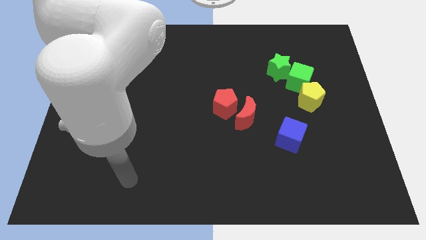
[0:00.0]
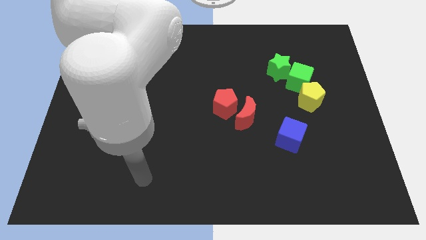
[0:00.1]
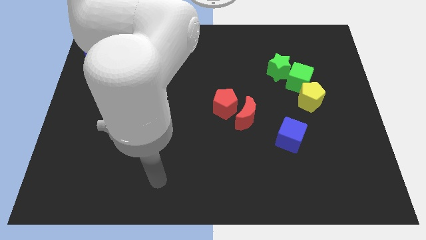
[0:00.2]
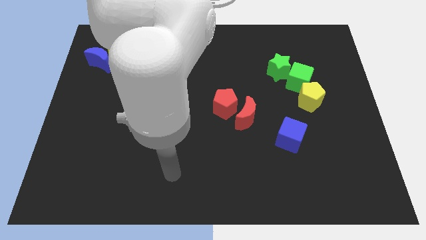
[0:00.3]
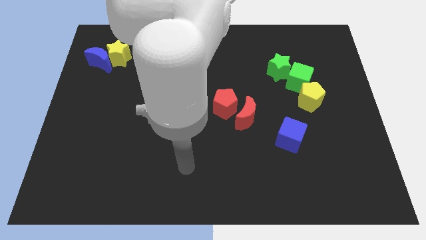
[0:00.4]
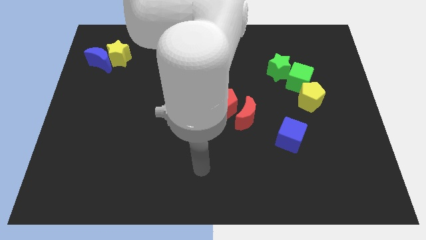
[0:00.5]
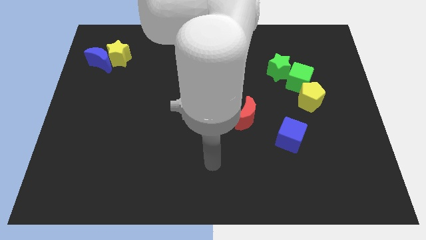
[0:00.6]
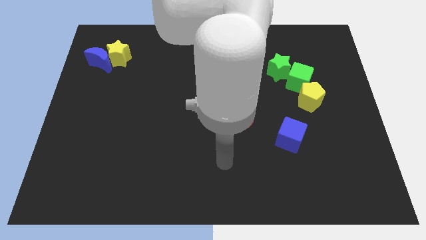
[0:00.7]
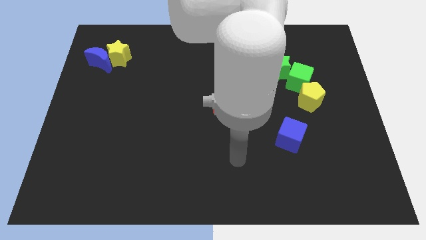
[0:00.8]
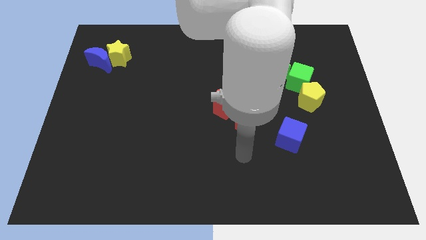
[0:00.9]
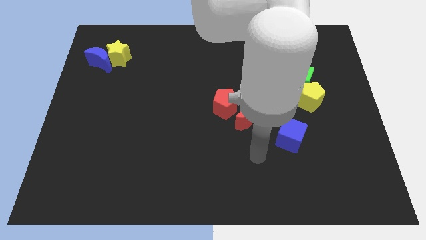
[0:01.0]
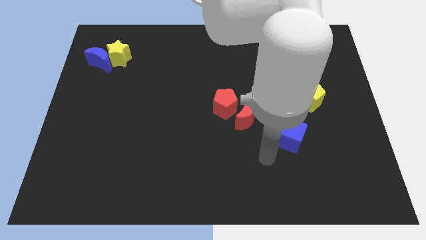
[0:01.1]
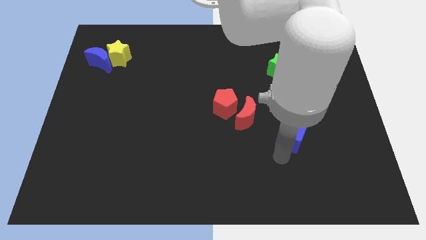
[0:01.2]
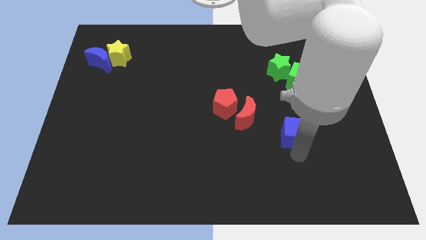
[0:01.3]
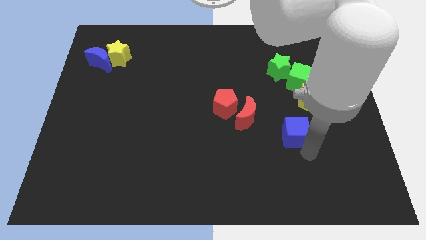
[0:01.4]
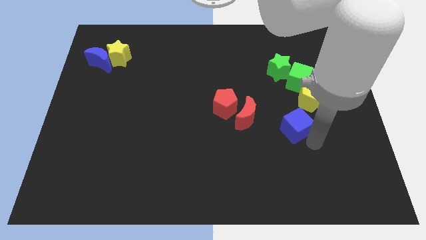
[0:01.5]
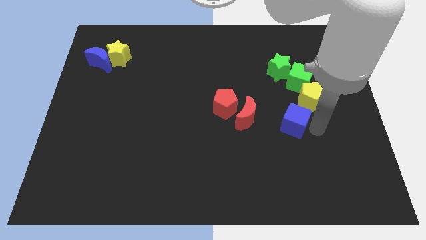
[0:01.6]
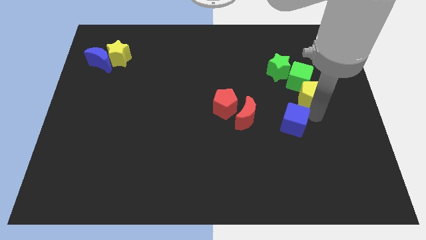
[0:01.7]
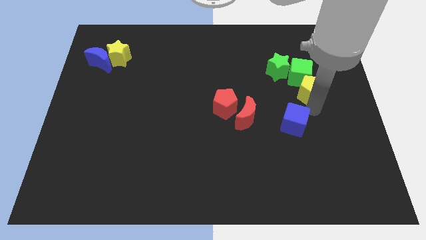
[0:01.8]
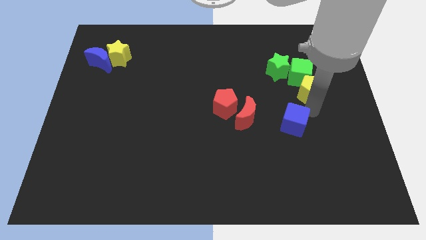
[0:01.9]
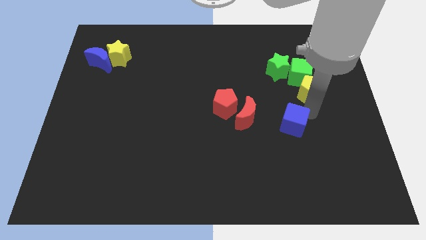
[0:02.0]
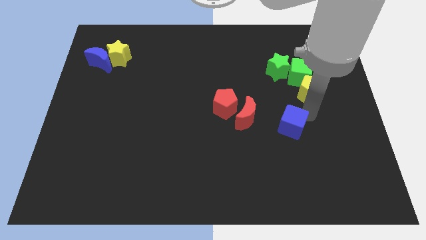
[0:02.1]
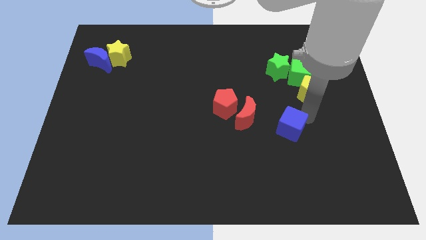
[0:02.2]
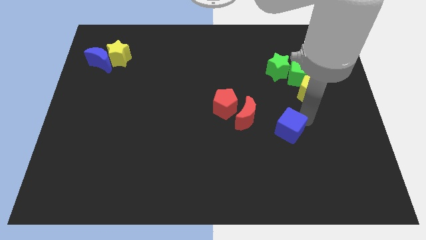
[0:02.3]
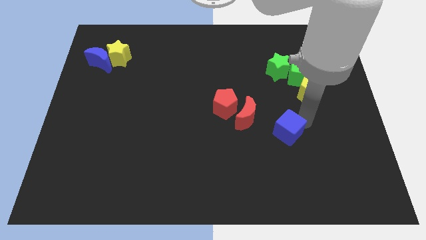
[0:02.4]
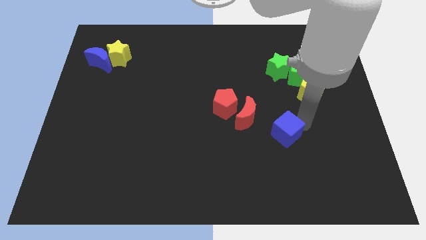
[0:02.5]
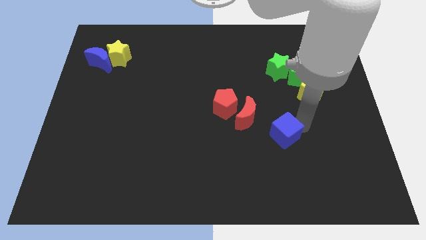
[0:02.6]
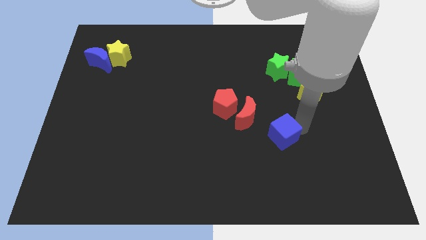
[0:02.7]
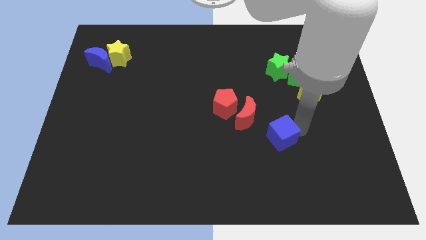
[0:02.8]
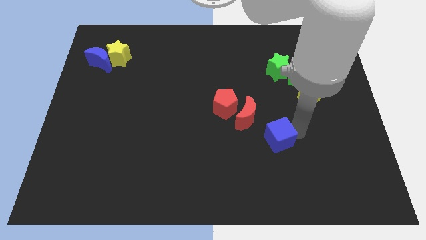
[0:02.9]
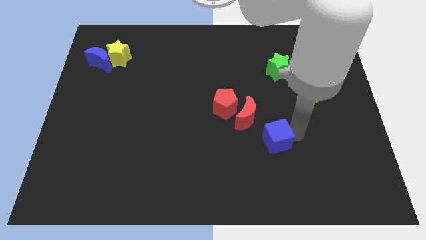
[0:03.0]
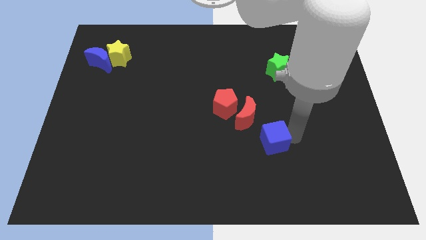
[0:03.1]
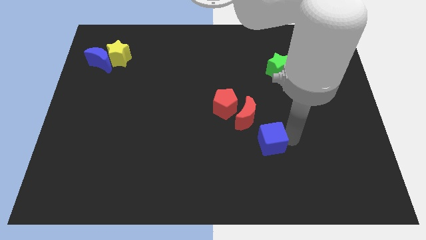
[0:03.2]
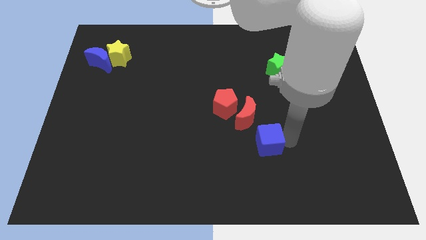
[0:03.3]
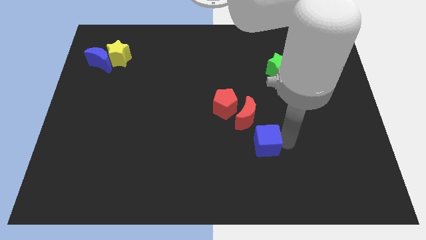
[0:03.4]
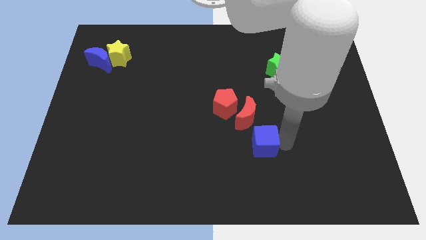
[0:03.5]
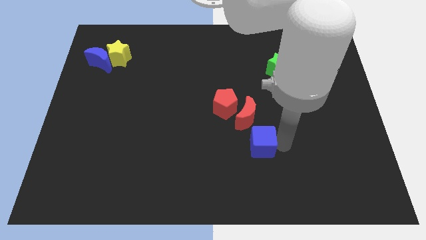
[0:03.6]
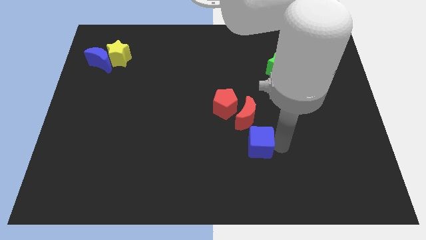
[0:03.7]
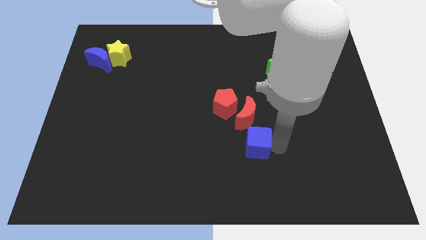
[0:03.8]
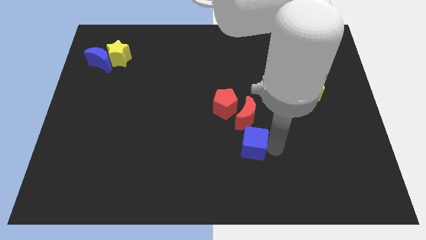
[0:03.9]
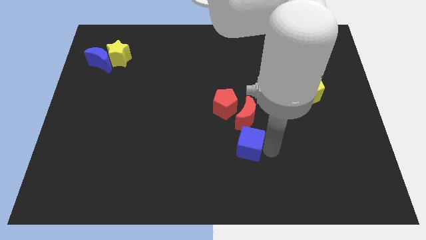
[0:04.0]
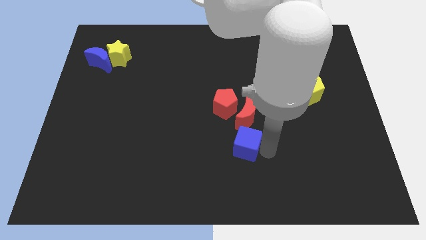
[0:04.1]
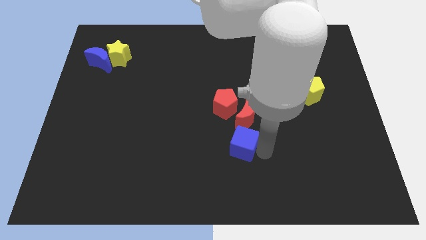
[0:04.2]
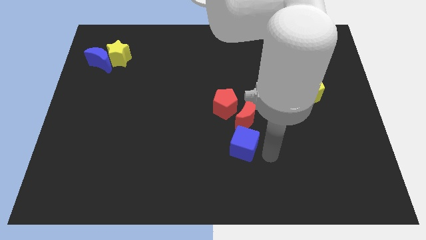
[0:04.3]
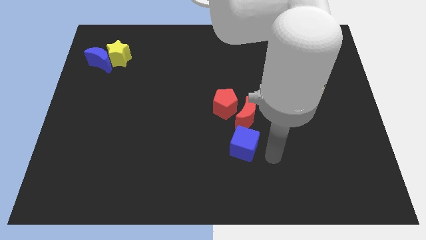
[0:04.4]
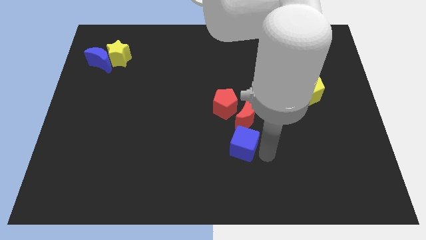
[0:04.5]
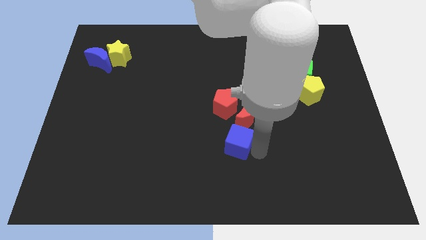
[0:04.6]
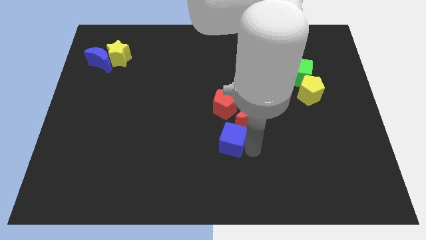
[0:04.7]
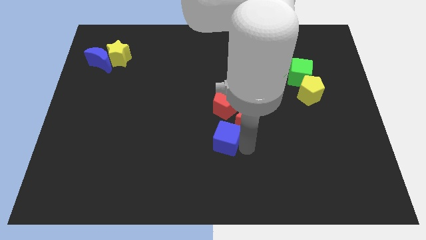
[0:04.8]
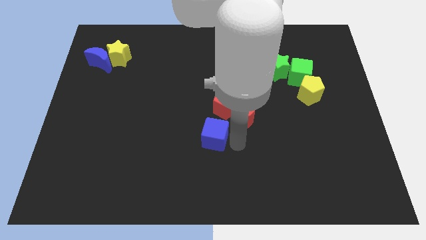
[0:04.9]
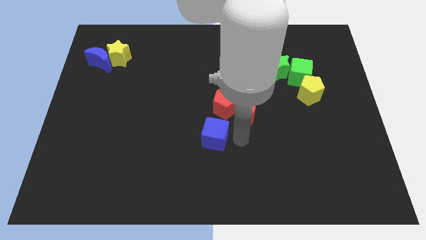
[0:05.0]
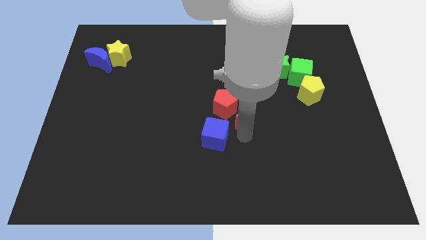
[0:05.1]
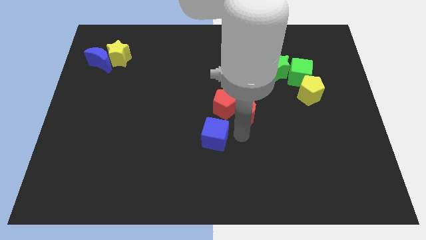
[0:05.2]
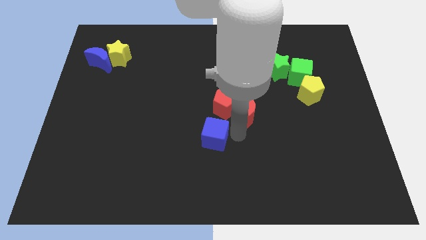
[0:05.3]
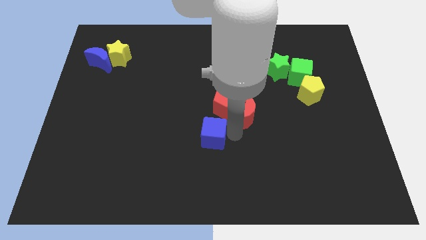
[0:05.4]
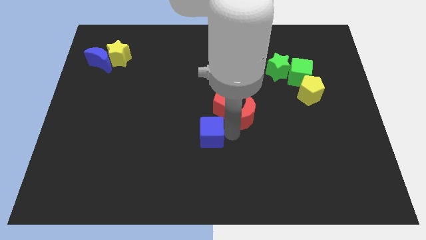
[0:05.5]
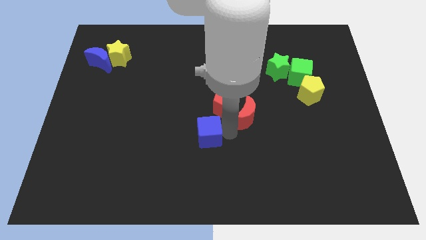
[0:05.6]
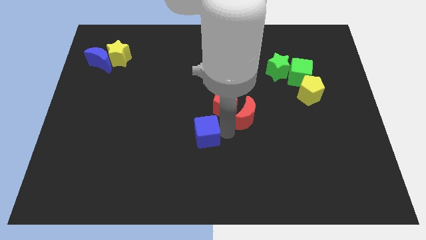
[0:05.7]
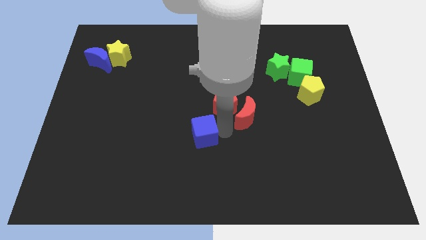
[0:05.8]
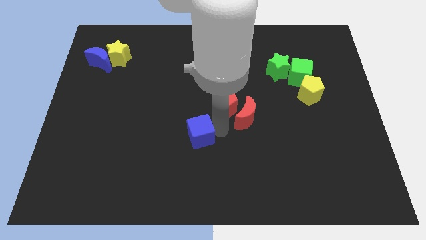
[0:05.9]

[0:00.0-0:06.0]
push the blue cube left

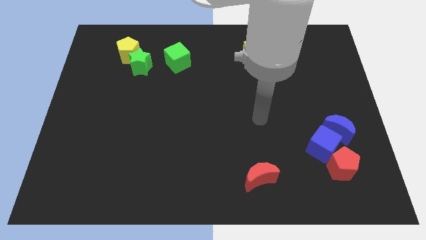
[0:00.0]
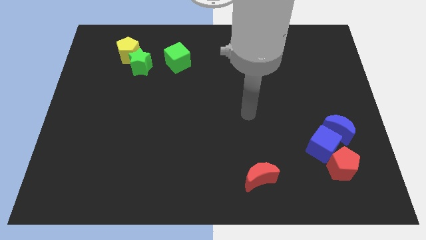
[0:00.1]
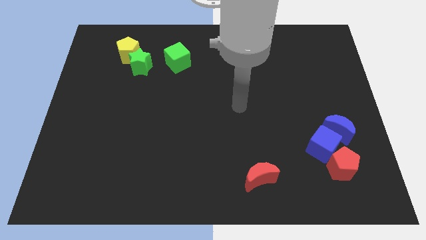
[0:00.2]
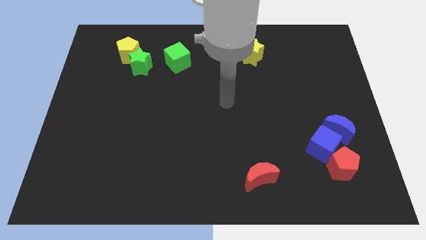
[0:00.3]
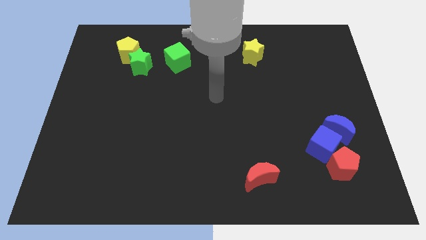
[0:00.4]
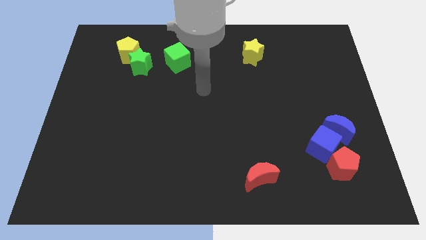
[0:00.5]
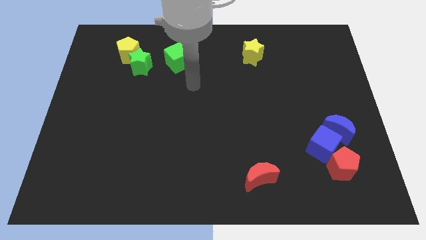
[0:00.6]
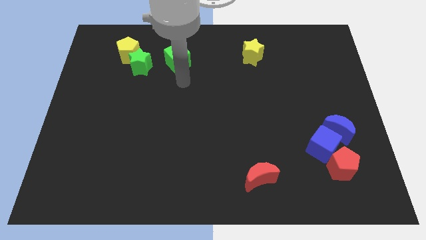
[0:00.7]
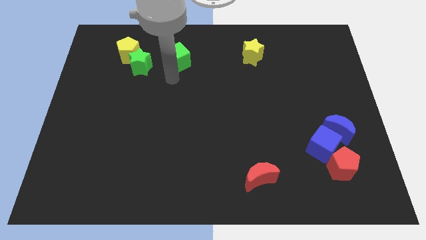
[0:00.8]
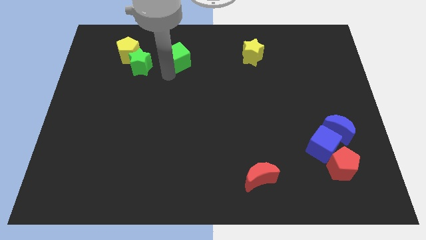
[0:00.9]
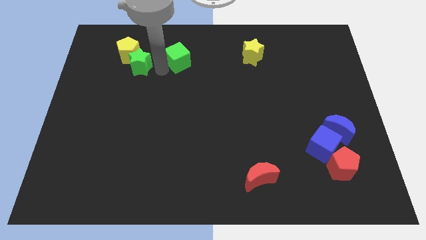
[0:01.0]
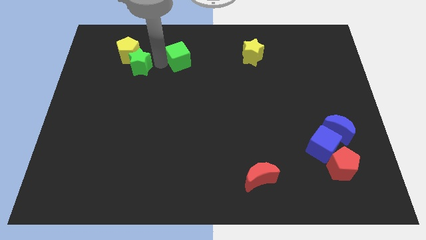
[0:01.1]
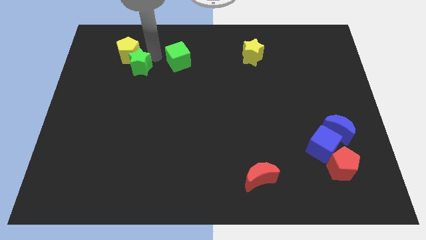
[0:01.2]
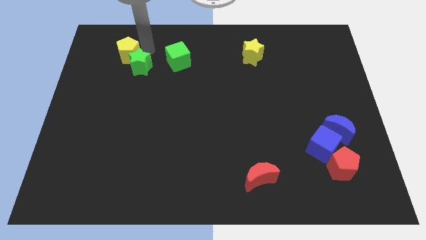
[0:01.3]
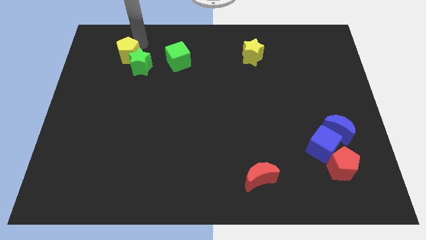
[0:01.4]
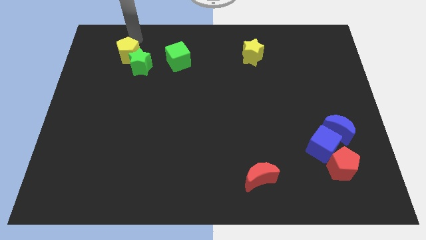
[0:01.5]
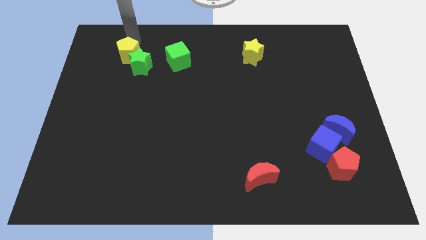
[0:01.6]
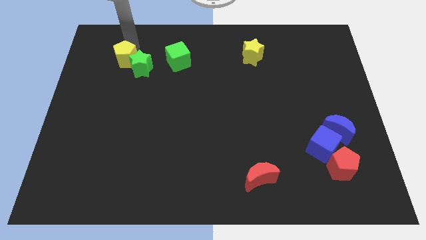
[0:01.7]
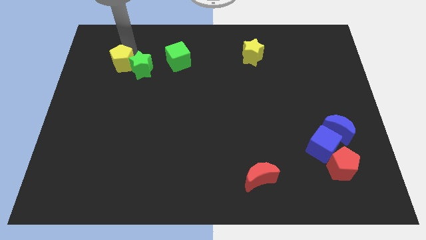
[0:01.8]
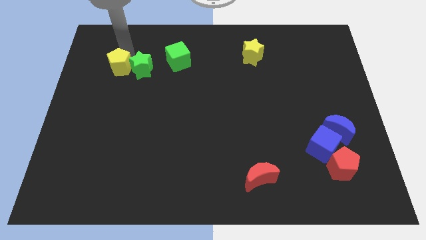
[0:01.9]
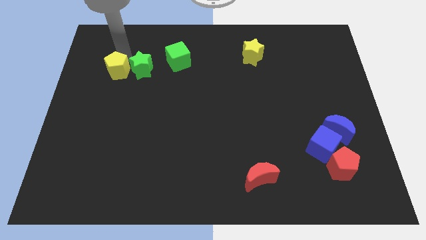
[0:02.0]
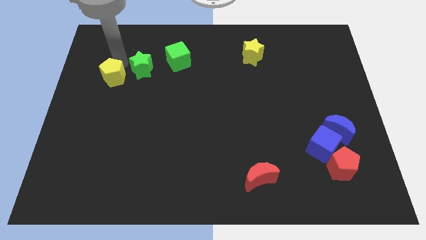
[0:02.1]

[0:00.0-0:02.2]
push the yellow pentagon a little bit down
